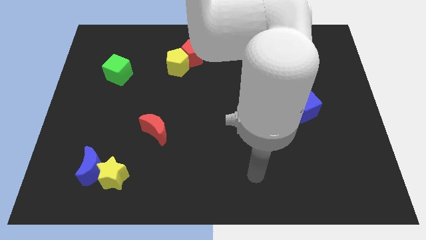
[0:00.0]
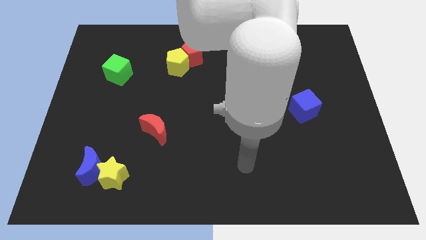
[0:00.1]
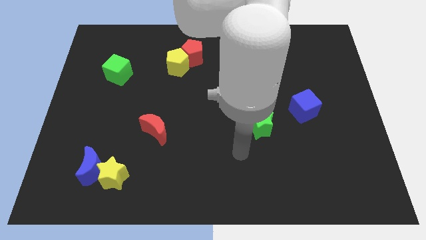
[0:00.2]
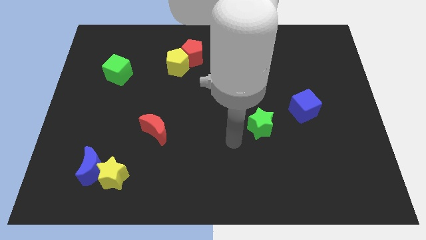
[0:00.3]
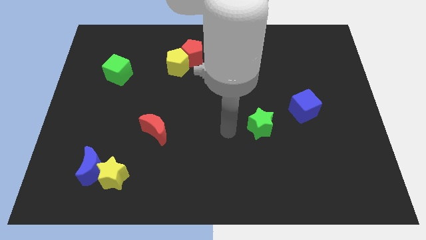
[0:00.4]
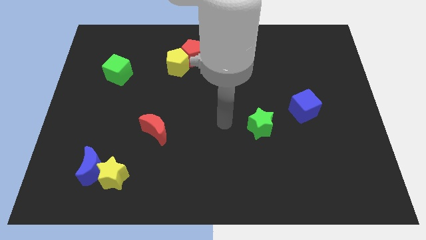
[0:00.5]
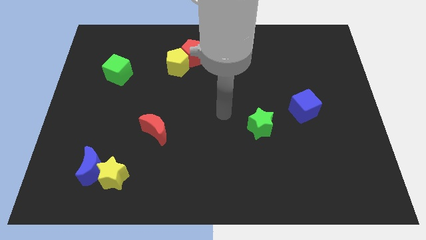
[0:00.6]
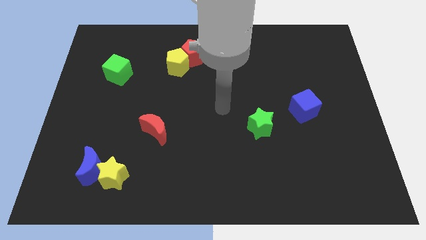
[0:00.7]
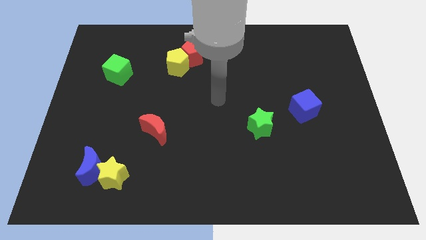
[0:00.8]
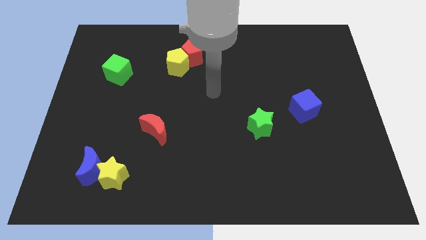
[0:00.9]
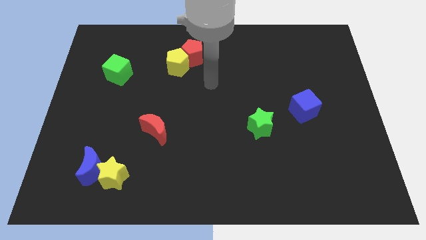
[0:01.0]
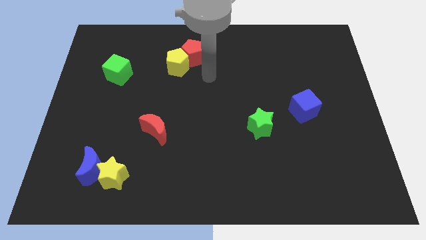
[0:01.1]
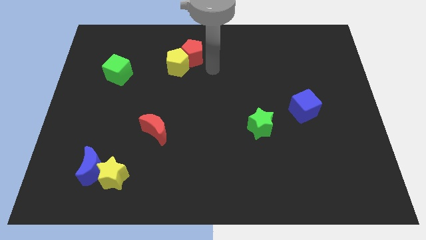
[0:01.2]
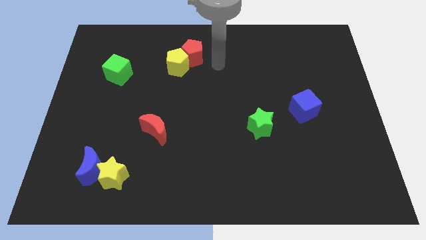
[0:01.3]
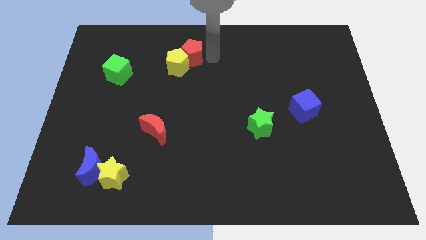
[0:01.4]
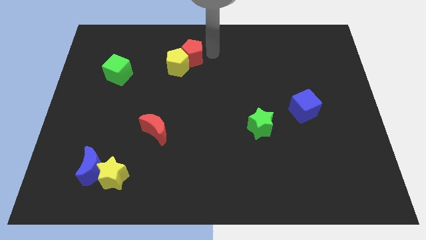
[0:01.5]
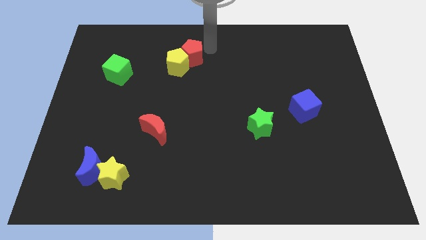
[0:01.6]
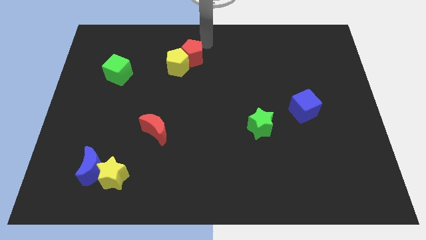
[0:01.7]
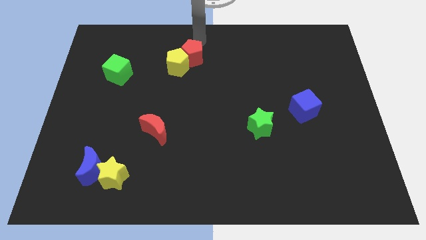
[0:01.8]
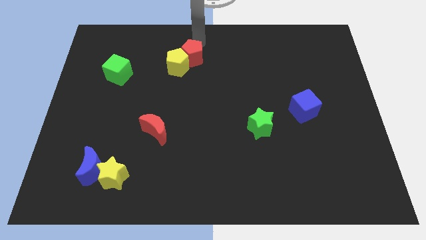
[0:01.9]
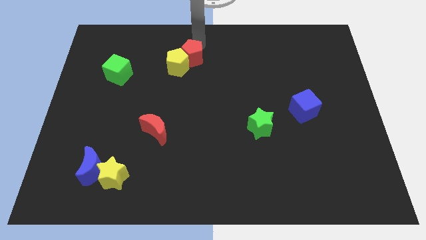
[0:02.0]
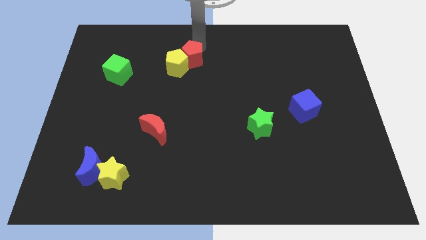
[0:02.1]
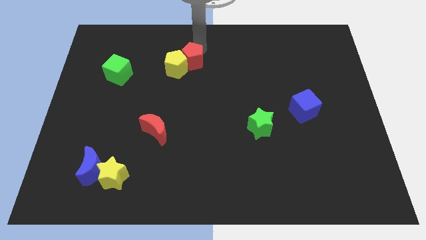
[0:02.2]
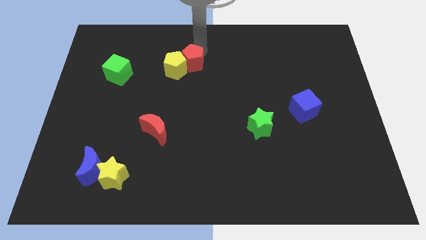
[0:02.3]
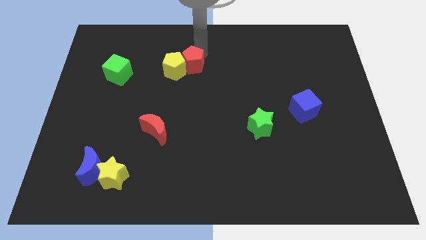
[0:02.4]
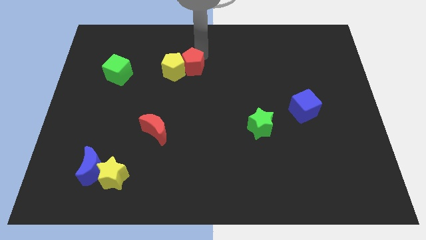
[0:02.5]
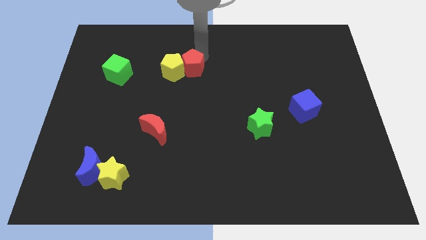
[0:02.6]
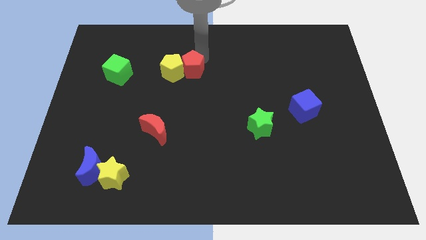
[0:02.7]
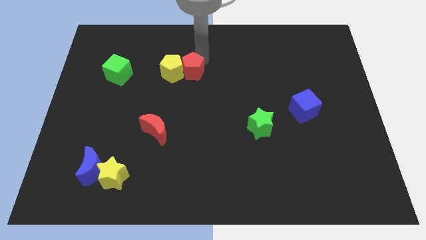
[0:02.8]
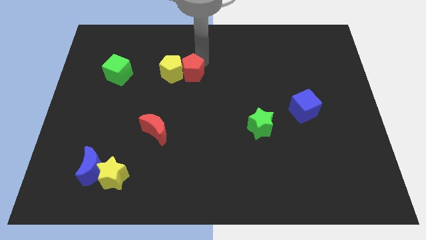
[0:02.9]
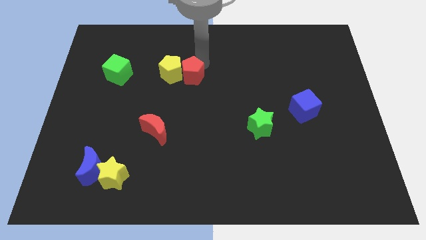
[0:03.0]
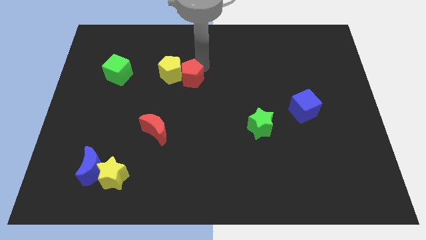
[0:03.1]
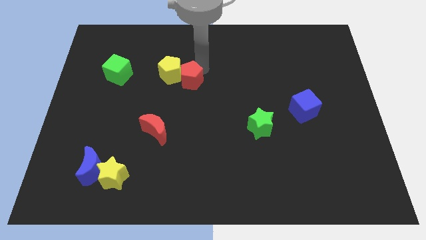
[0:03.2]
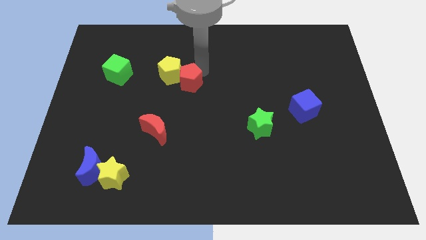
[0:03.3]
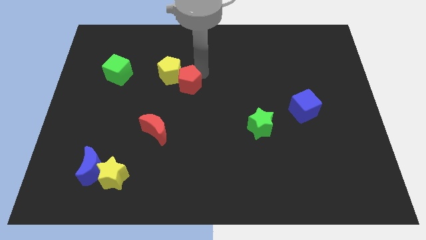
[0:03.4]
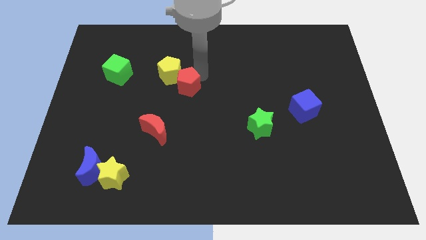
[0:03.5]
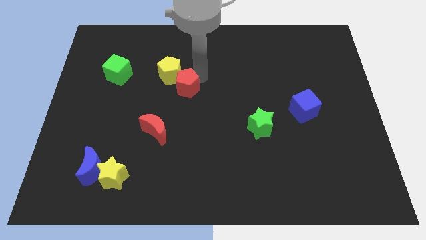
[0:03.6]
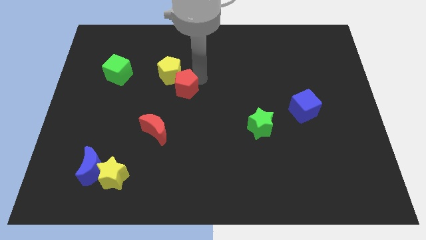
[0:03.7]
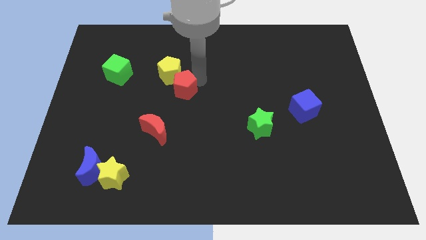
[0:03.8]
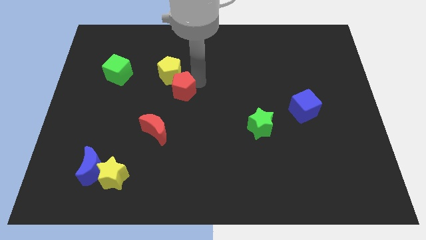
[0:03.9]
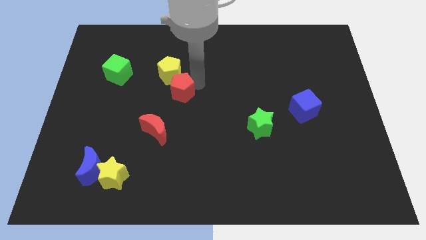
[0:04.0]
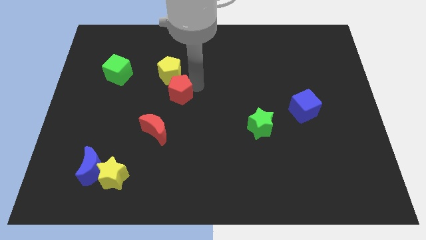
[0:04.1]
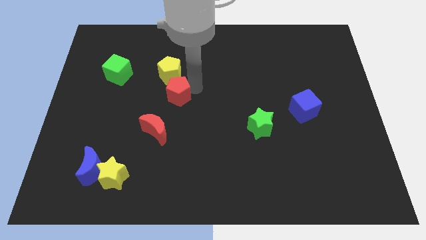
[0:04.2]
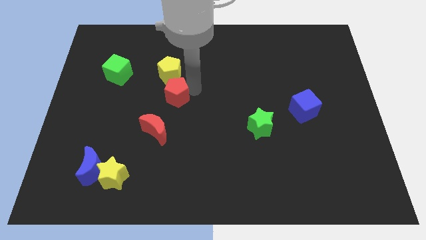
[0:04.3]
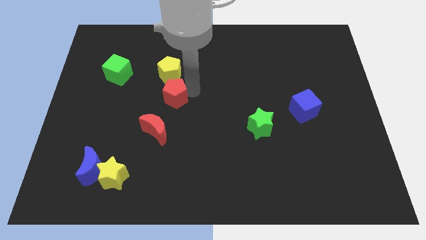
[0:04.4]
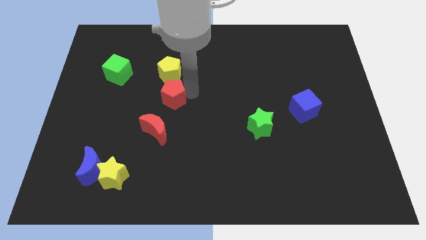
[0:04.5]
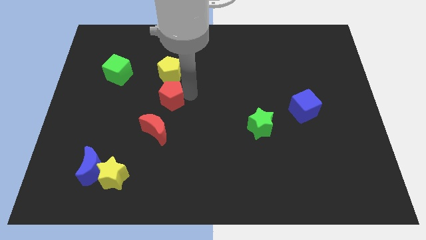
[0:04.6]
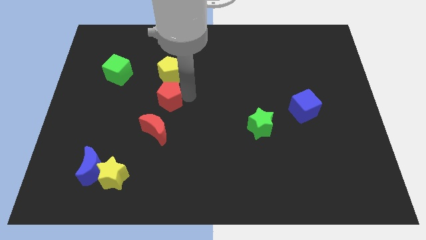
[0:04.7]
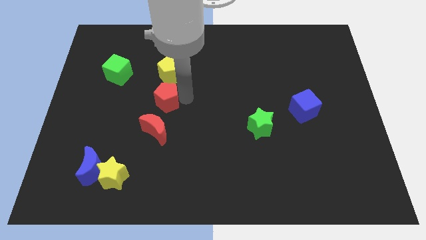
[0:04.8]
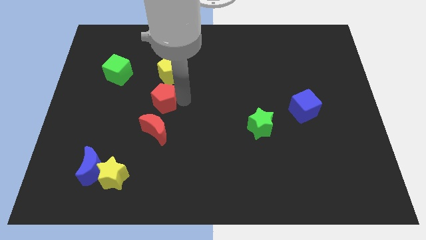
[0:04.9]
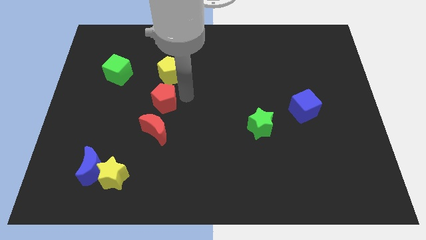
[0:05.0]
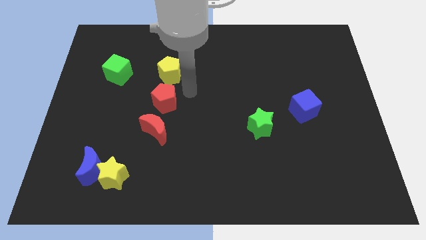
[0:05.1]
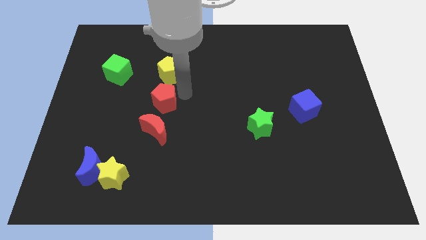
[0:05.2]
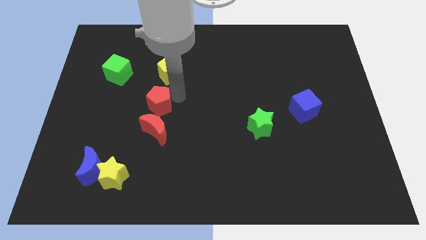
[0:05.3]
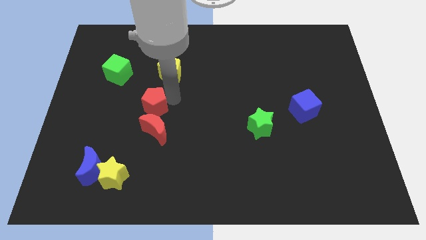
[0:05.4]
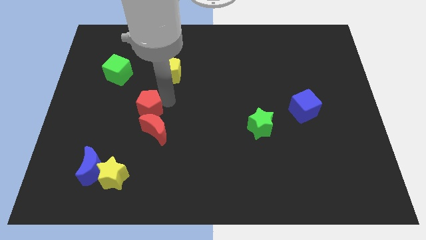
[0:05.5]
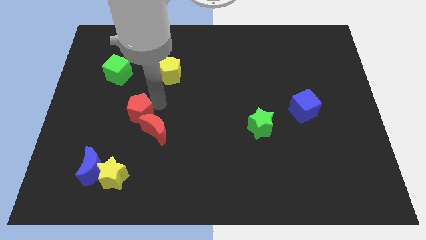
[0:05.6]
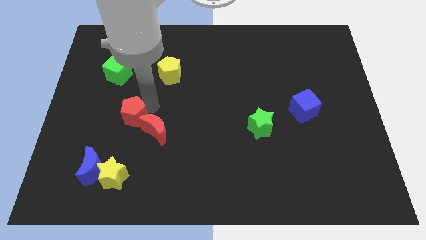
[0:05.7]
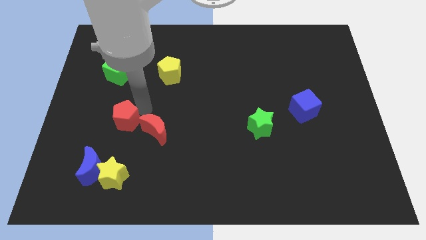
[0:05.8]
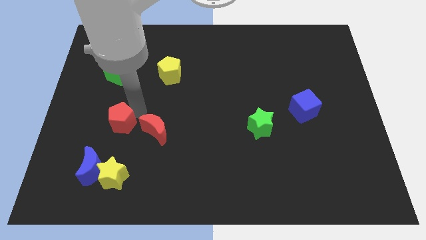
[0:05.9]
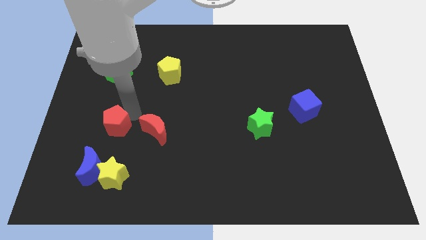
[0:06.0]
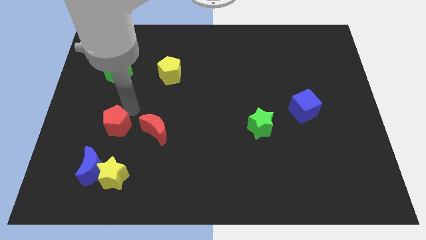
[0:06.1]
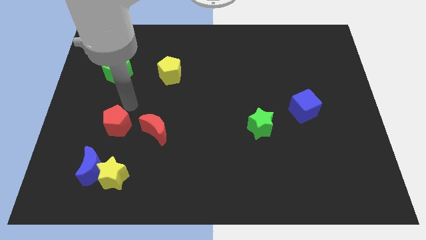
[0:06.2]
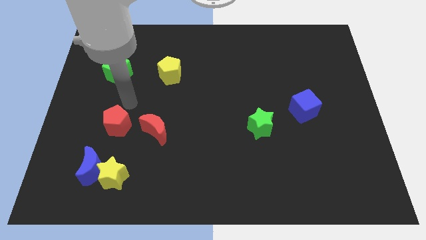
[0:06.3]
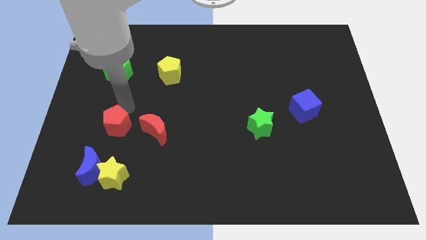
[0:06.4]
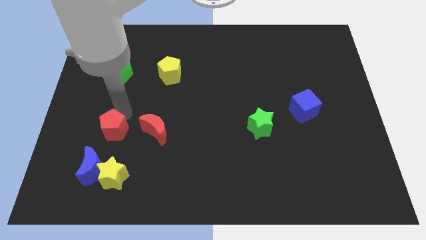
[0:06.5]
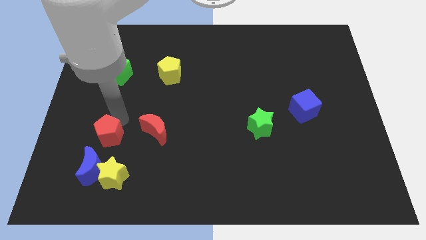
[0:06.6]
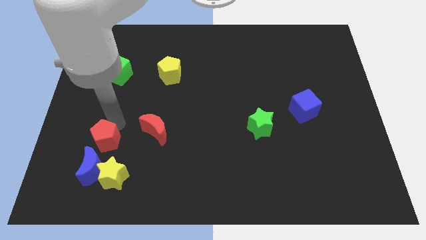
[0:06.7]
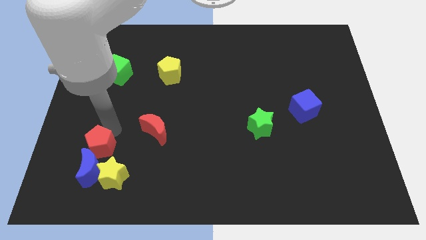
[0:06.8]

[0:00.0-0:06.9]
move the red pentagon towards the blue moon

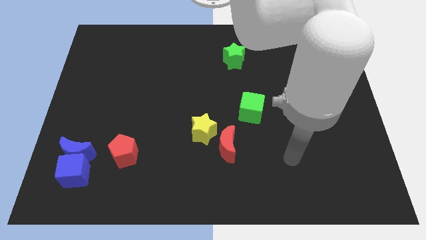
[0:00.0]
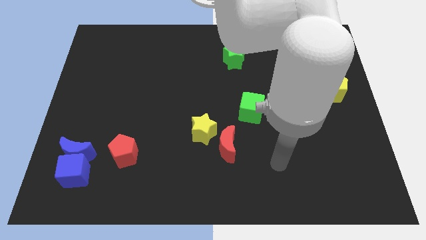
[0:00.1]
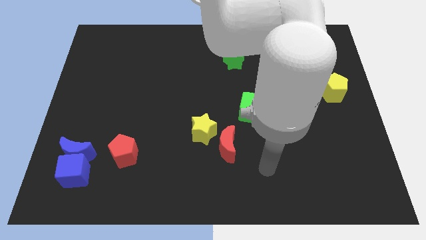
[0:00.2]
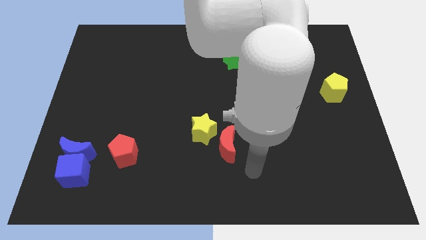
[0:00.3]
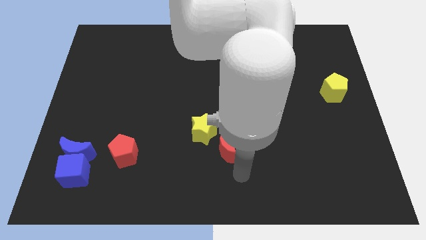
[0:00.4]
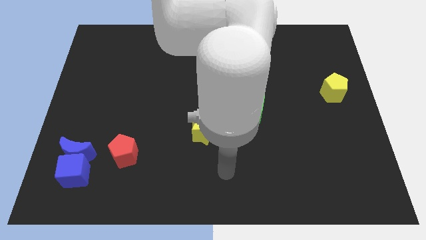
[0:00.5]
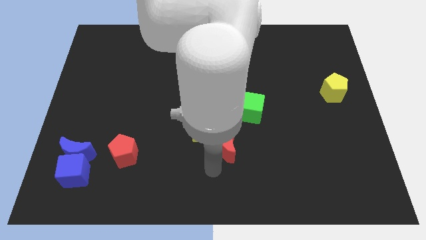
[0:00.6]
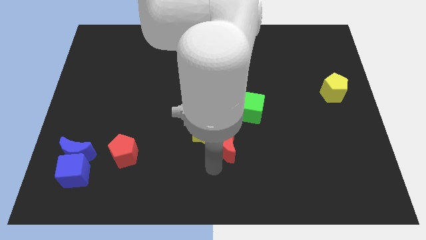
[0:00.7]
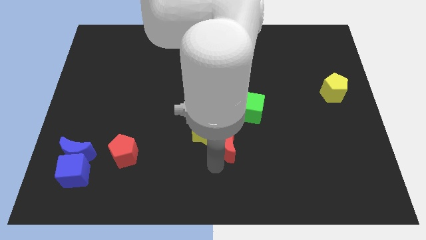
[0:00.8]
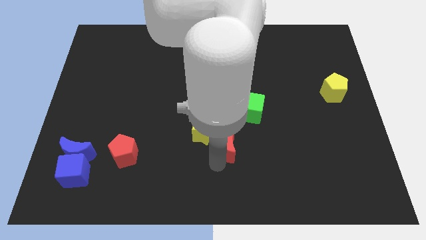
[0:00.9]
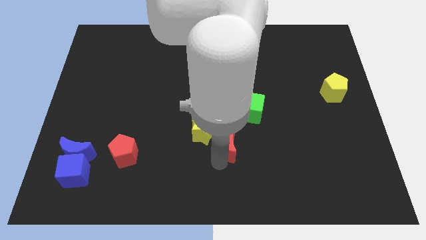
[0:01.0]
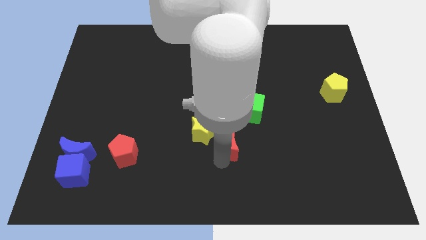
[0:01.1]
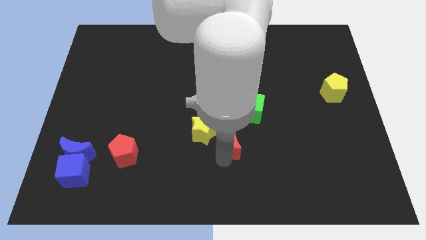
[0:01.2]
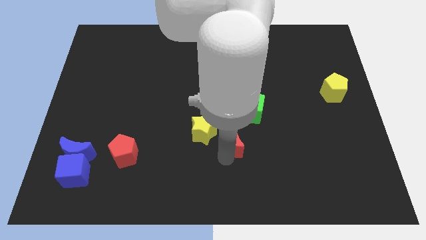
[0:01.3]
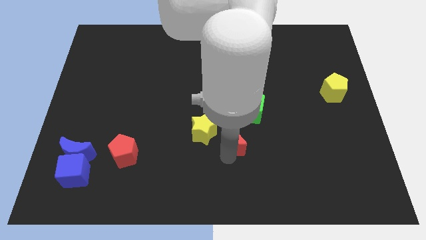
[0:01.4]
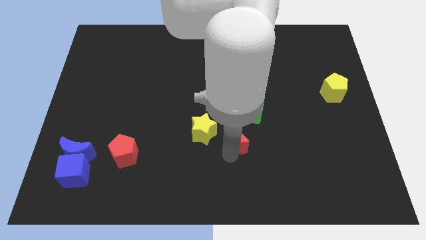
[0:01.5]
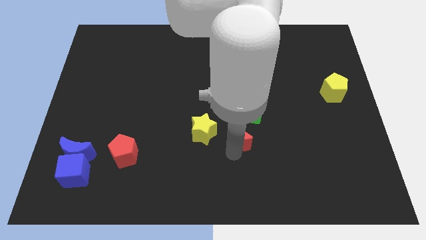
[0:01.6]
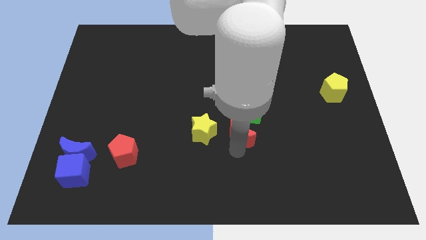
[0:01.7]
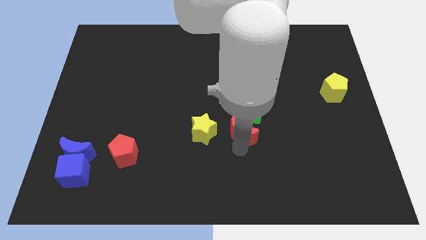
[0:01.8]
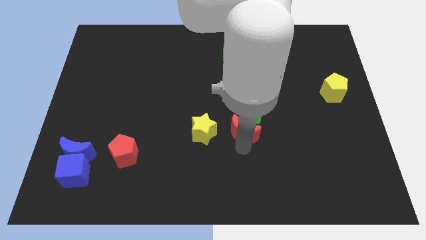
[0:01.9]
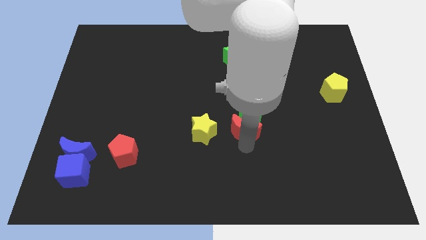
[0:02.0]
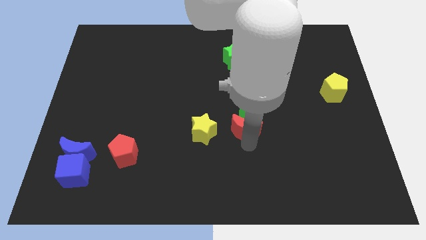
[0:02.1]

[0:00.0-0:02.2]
push the red moon towards the green cube
